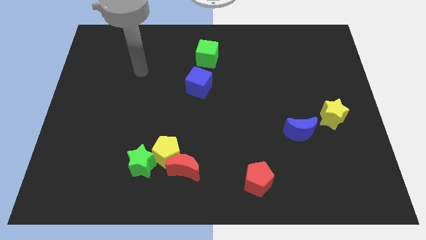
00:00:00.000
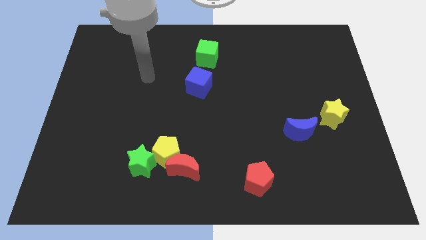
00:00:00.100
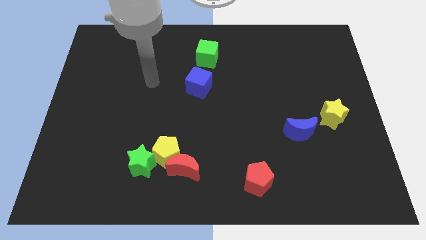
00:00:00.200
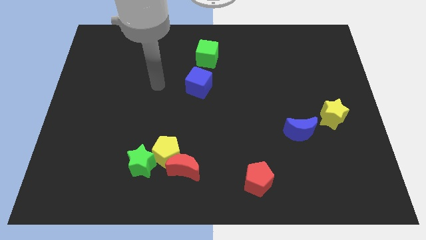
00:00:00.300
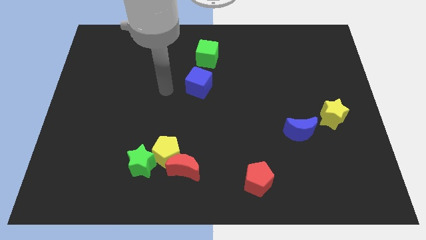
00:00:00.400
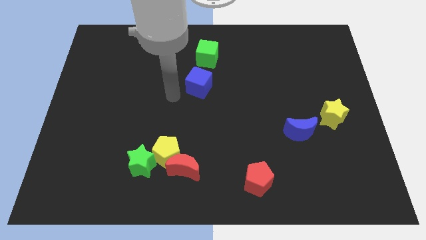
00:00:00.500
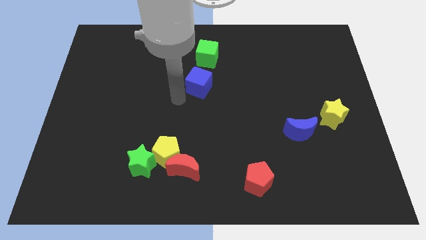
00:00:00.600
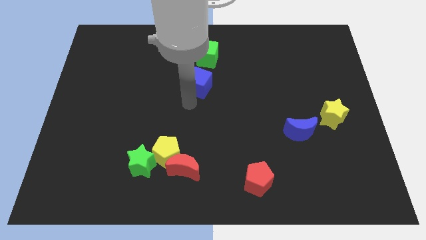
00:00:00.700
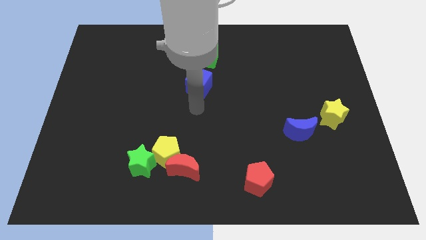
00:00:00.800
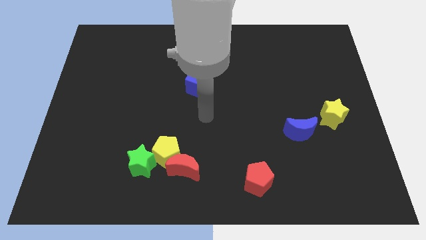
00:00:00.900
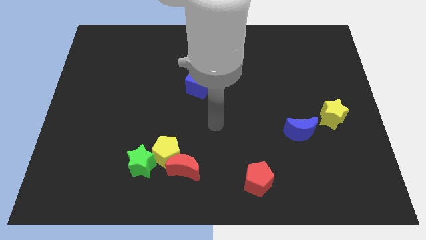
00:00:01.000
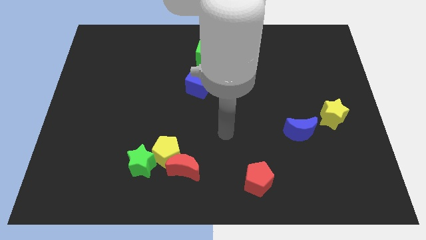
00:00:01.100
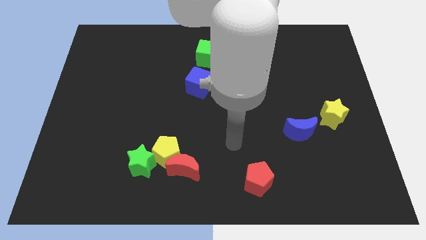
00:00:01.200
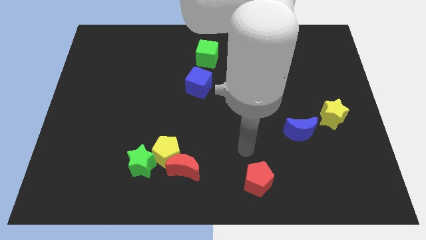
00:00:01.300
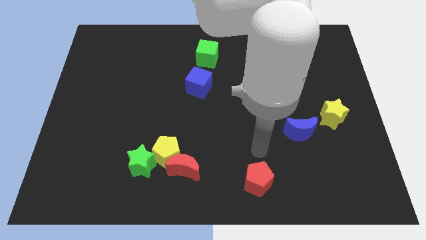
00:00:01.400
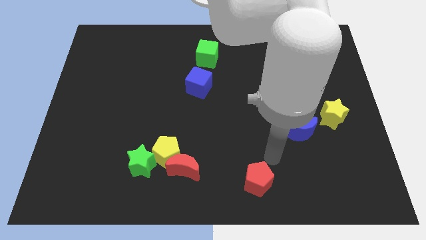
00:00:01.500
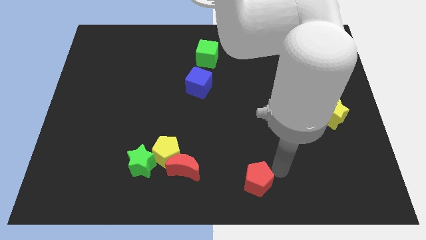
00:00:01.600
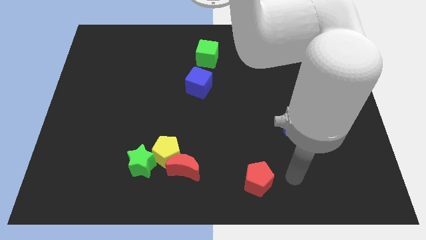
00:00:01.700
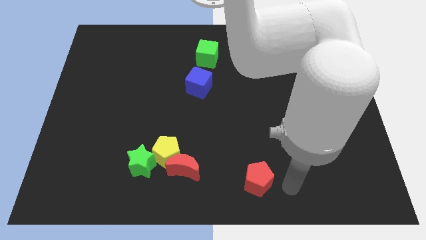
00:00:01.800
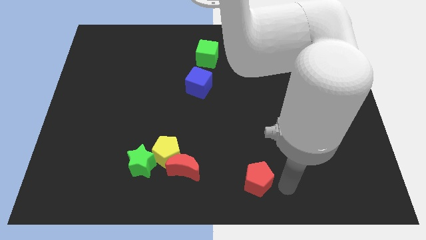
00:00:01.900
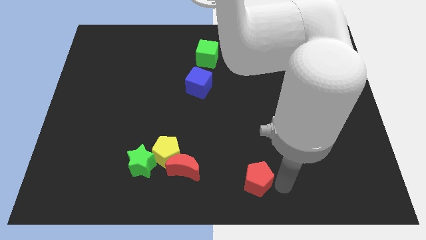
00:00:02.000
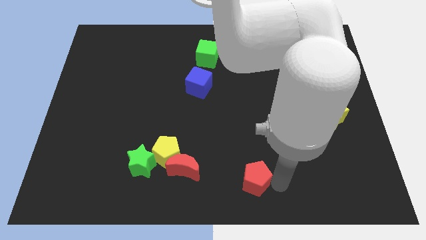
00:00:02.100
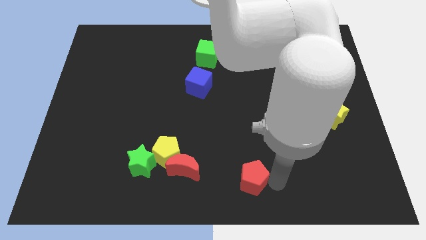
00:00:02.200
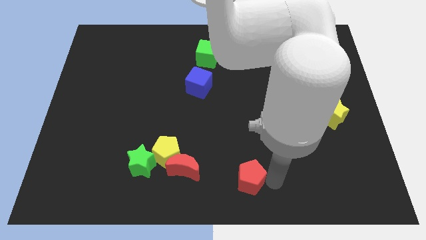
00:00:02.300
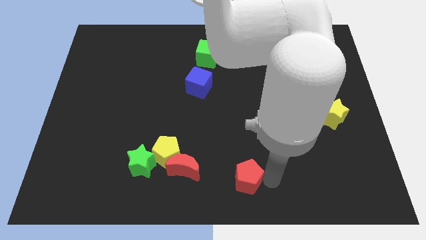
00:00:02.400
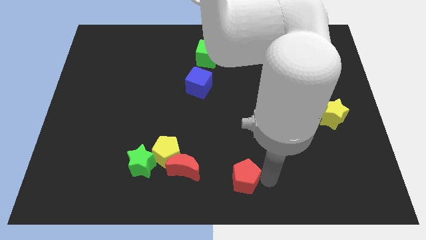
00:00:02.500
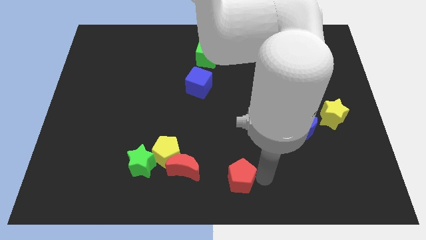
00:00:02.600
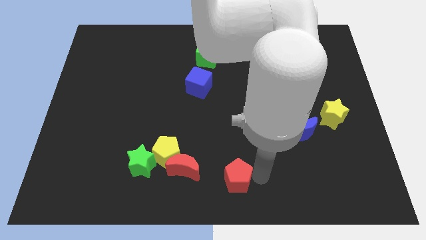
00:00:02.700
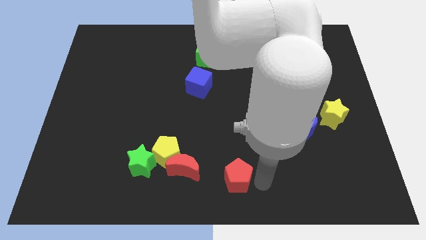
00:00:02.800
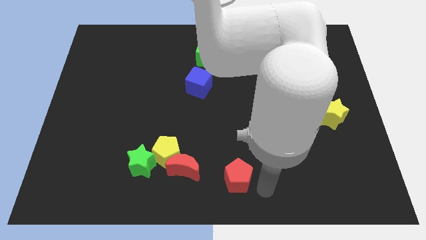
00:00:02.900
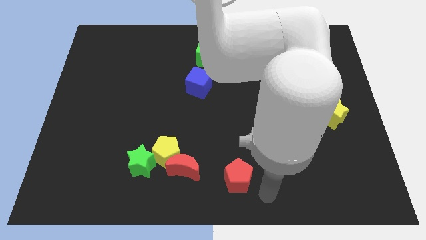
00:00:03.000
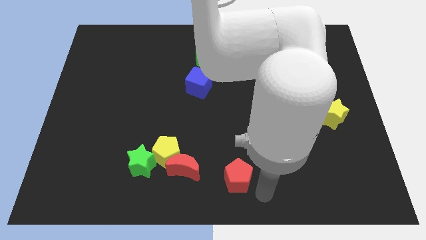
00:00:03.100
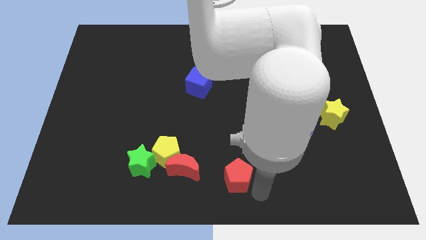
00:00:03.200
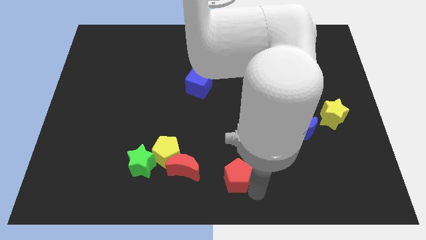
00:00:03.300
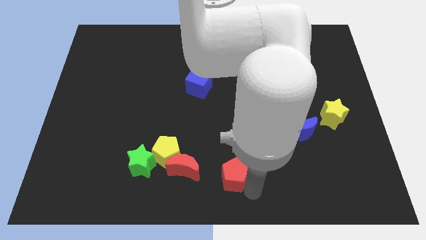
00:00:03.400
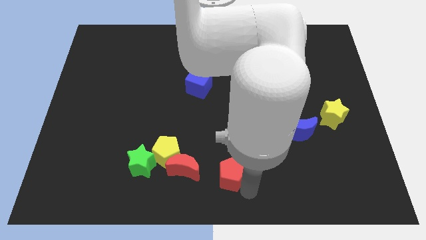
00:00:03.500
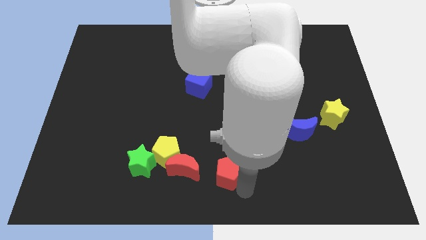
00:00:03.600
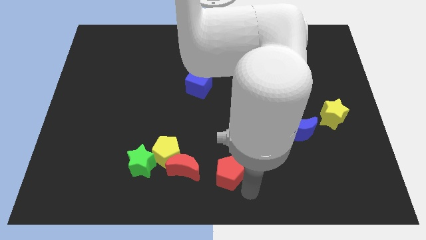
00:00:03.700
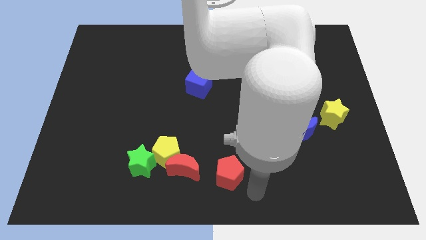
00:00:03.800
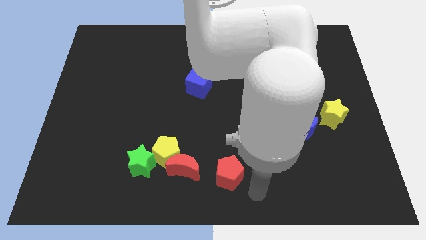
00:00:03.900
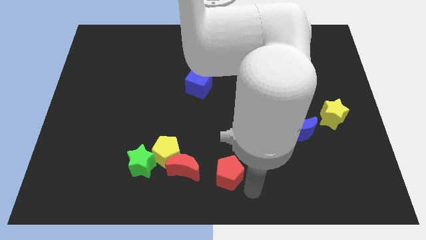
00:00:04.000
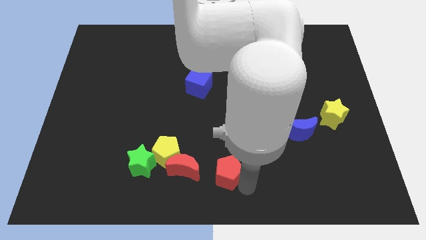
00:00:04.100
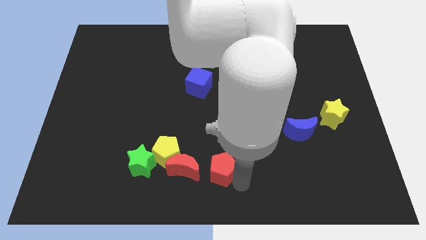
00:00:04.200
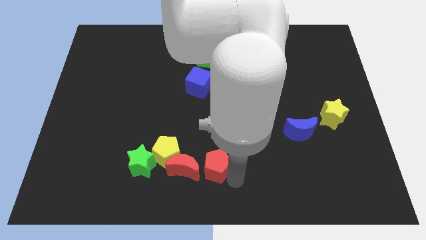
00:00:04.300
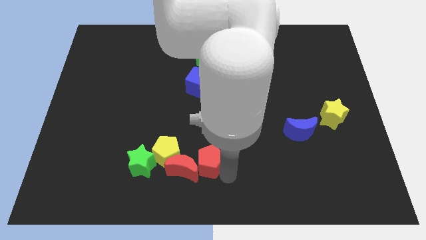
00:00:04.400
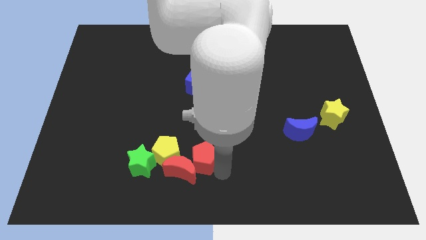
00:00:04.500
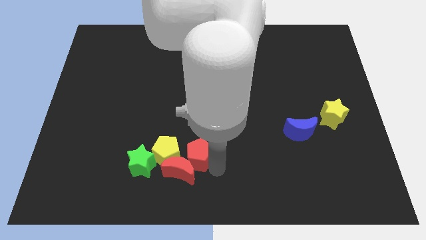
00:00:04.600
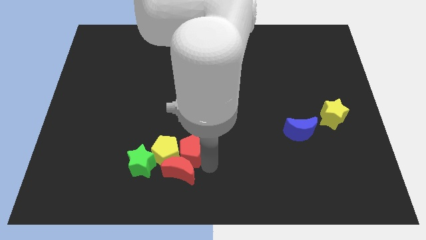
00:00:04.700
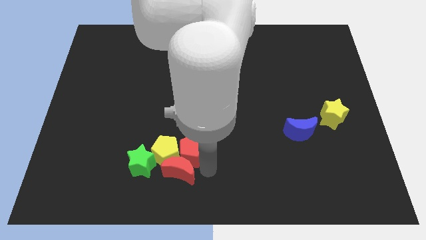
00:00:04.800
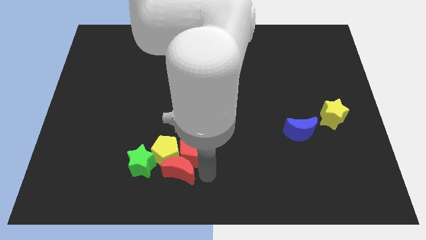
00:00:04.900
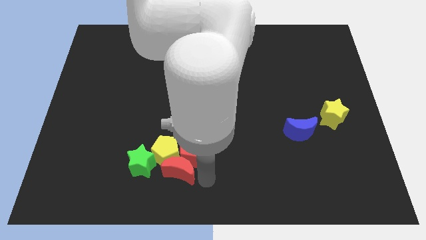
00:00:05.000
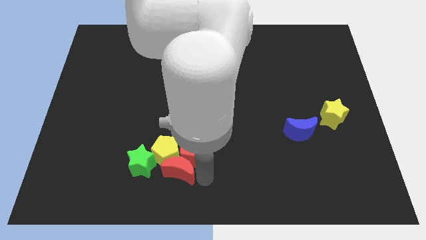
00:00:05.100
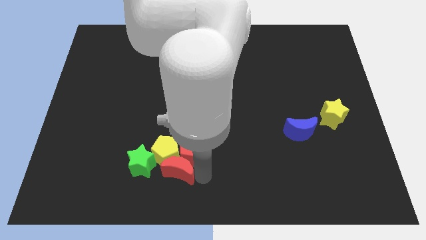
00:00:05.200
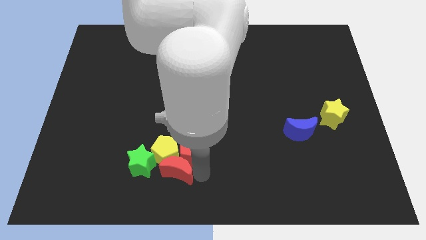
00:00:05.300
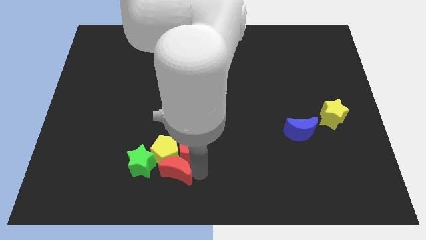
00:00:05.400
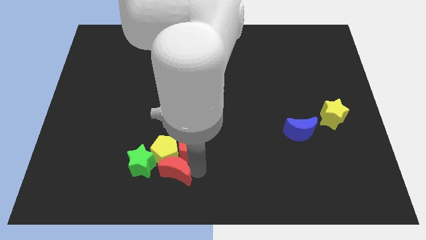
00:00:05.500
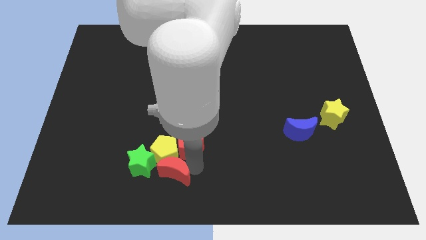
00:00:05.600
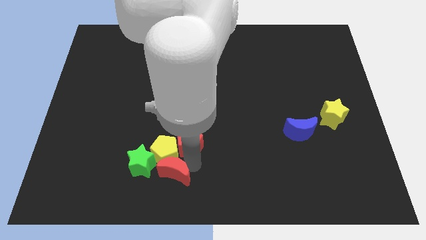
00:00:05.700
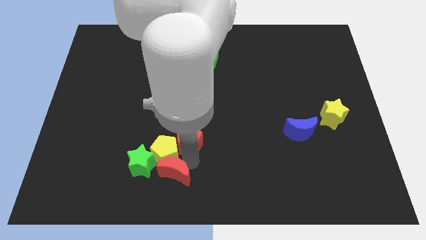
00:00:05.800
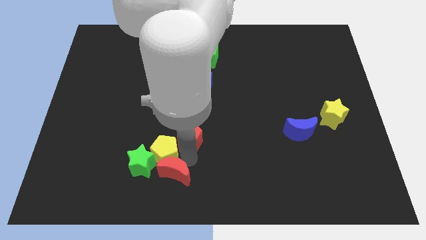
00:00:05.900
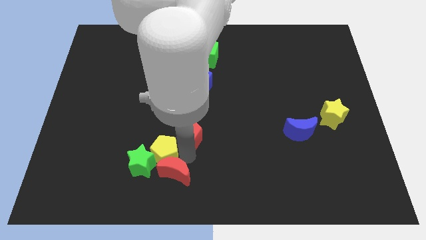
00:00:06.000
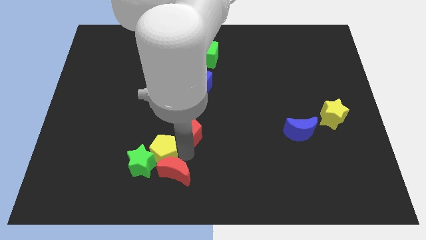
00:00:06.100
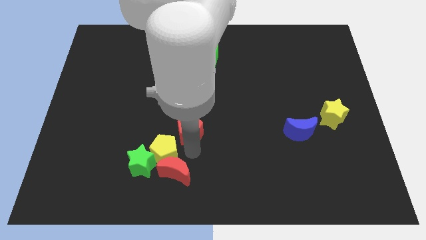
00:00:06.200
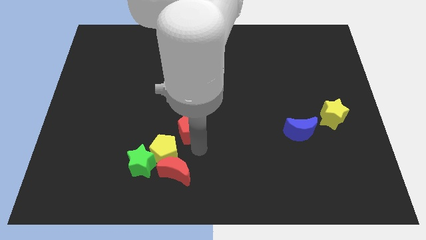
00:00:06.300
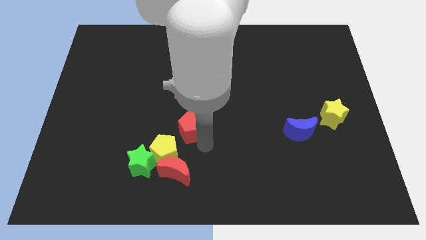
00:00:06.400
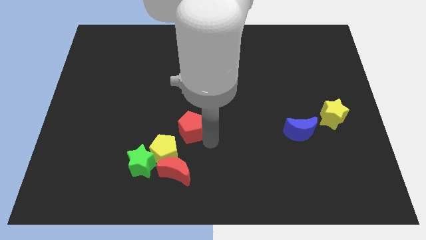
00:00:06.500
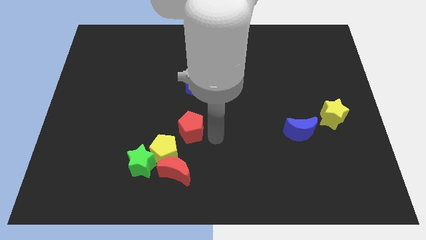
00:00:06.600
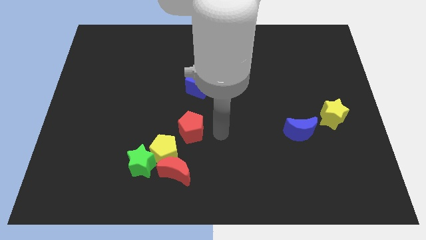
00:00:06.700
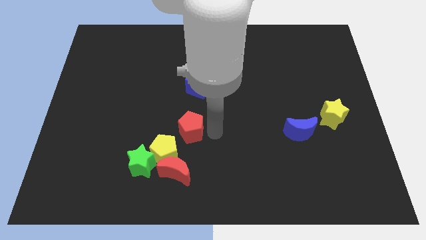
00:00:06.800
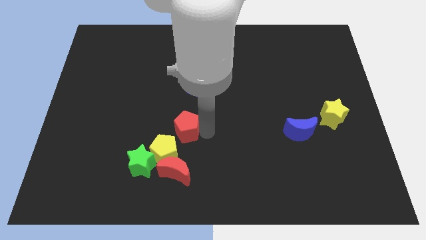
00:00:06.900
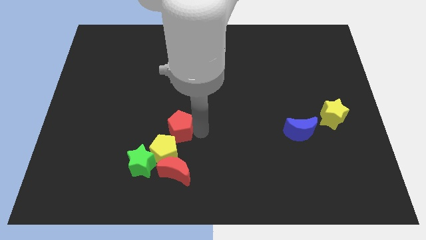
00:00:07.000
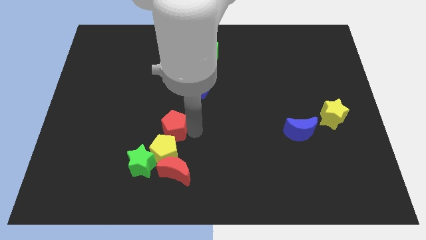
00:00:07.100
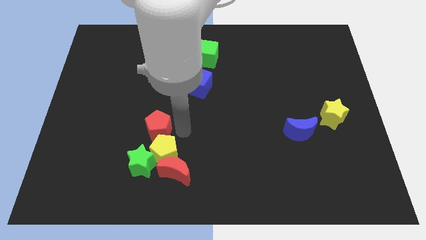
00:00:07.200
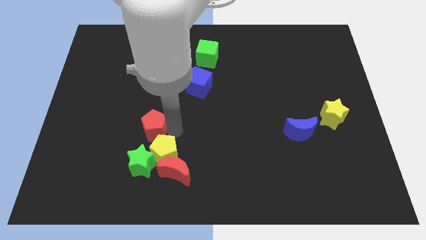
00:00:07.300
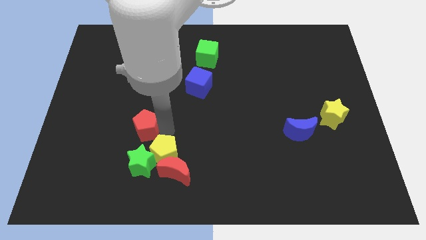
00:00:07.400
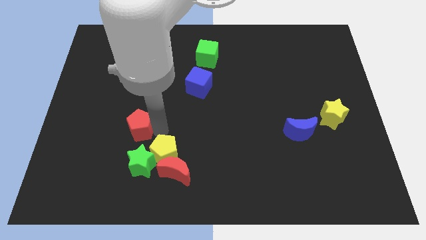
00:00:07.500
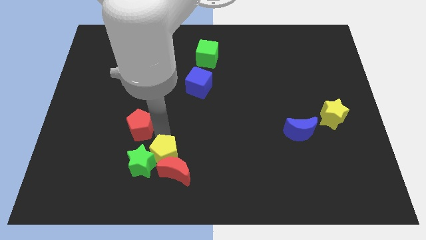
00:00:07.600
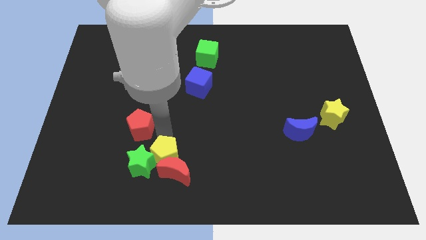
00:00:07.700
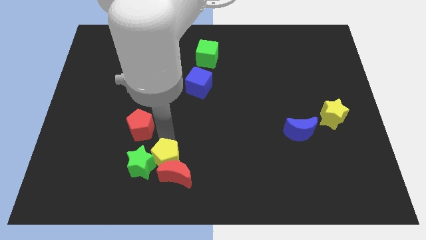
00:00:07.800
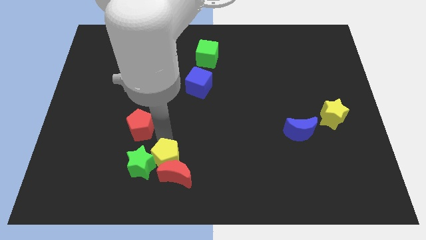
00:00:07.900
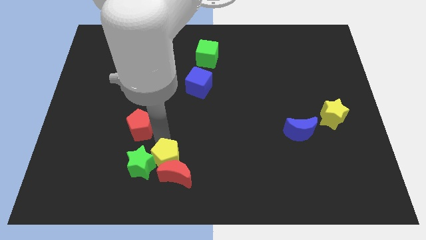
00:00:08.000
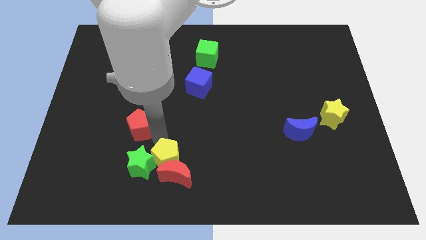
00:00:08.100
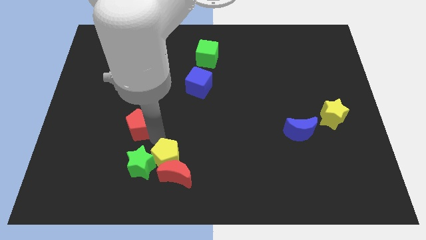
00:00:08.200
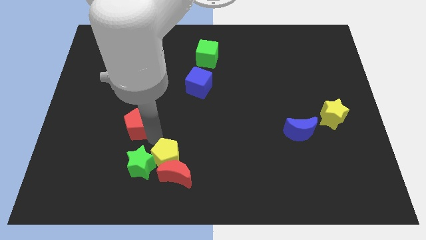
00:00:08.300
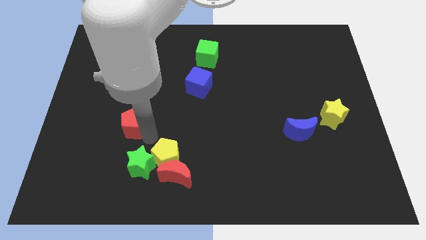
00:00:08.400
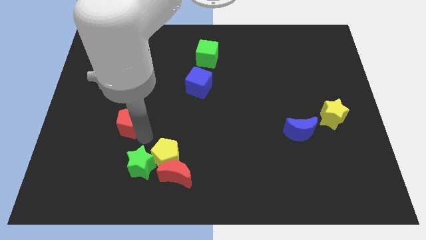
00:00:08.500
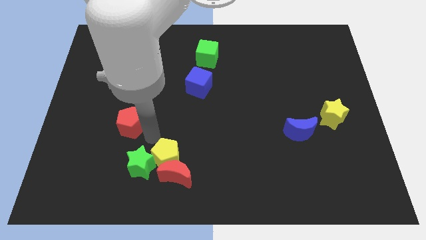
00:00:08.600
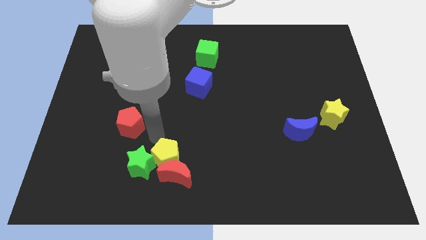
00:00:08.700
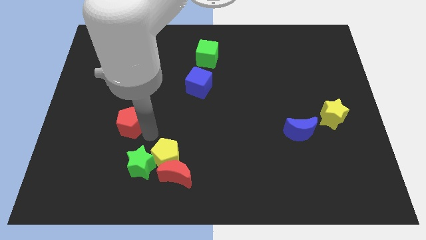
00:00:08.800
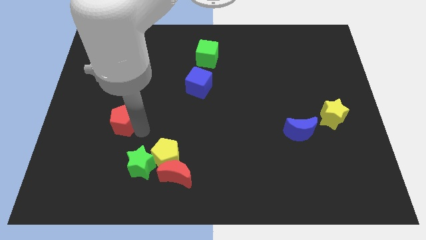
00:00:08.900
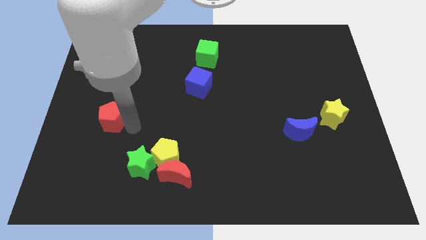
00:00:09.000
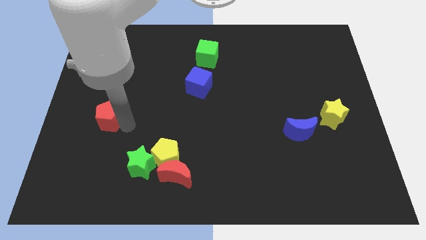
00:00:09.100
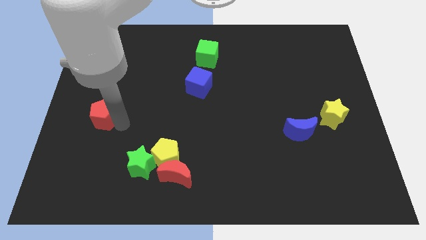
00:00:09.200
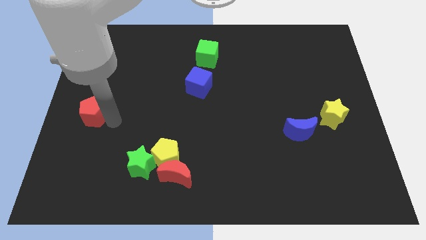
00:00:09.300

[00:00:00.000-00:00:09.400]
push the red pentagon to the center left
